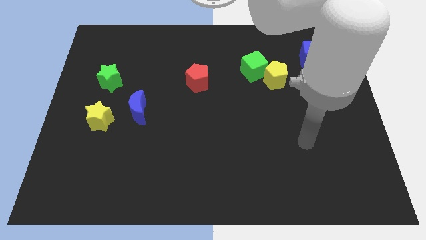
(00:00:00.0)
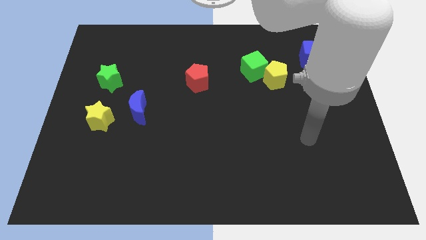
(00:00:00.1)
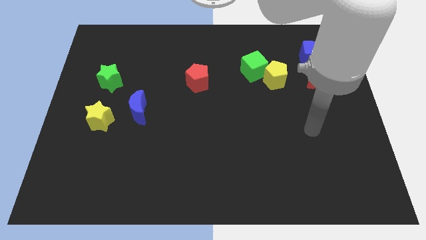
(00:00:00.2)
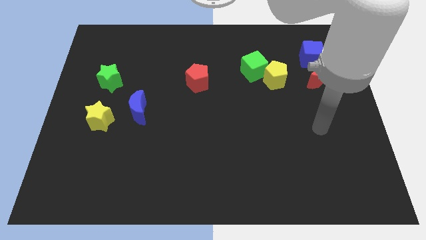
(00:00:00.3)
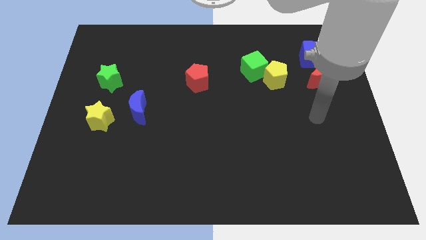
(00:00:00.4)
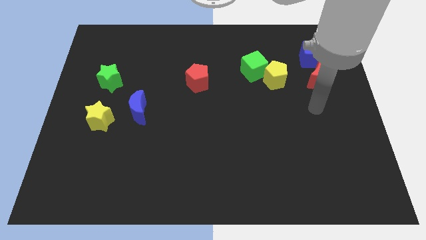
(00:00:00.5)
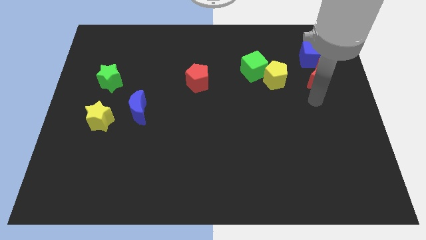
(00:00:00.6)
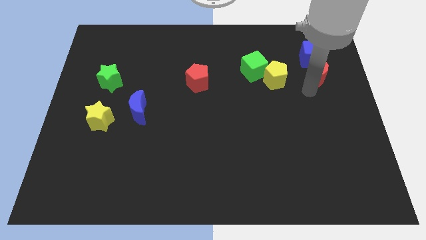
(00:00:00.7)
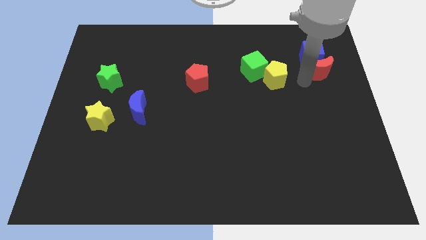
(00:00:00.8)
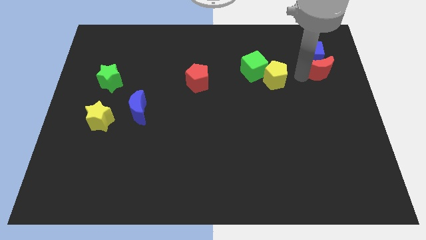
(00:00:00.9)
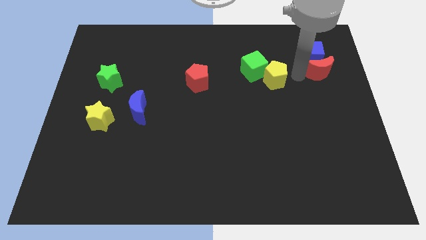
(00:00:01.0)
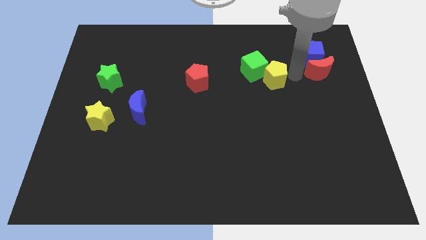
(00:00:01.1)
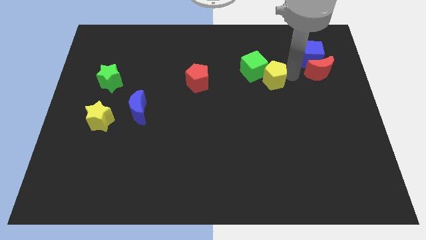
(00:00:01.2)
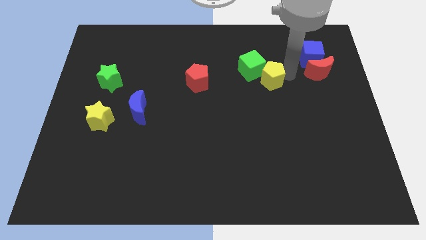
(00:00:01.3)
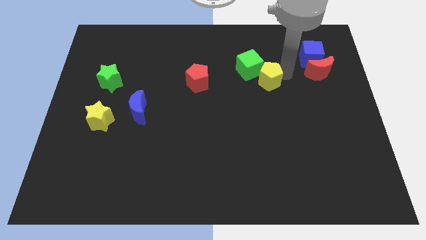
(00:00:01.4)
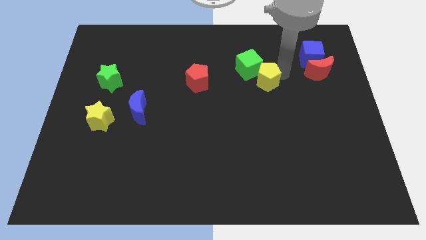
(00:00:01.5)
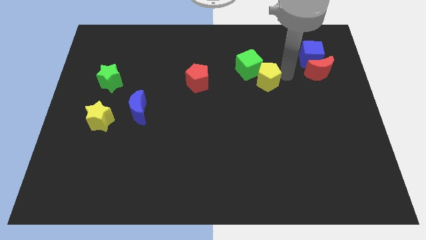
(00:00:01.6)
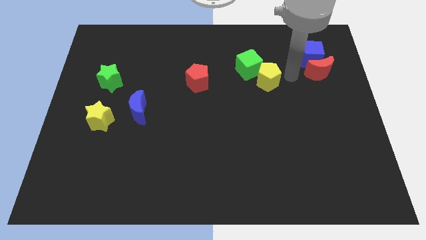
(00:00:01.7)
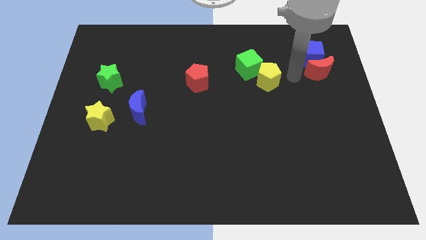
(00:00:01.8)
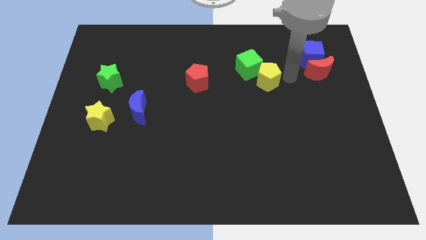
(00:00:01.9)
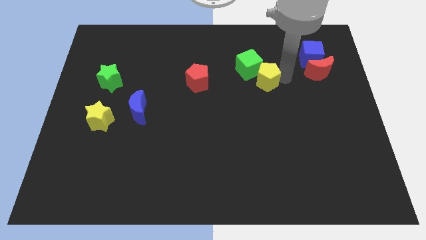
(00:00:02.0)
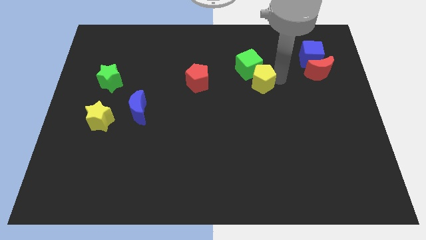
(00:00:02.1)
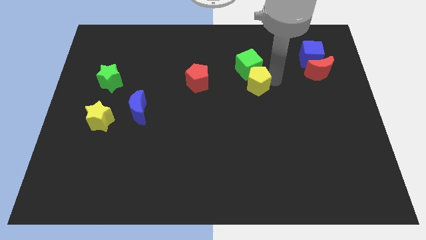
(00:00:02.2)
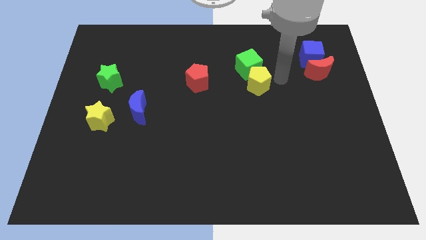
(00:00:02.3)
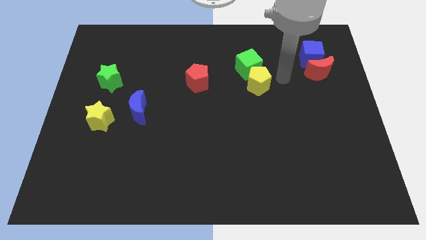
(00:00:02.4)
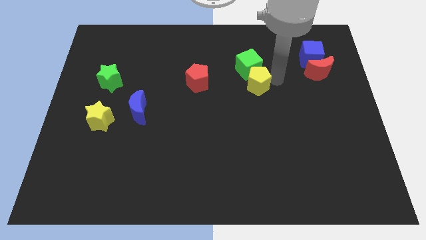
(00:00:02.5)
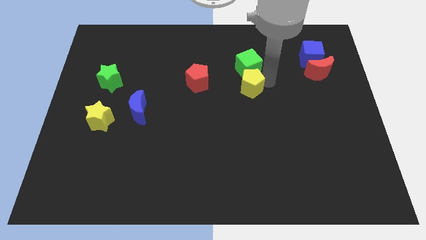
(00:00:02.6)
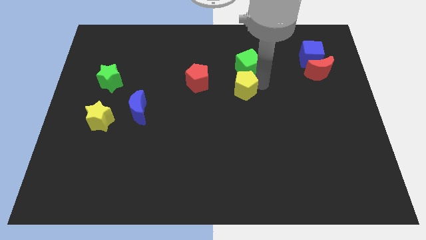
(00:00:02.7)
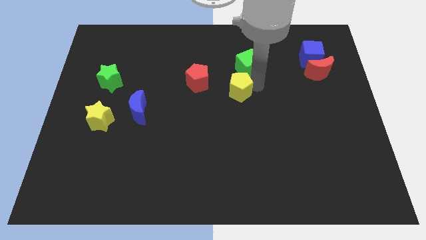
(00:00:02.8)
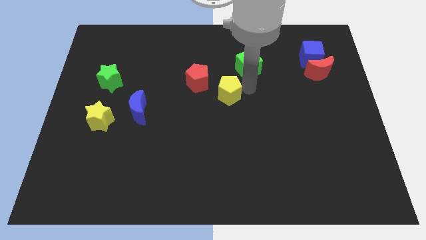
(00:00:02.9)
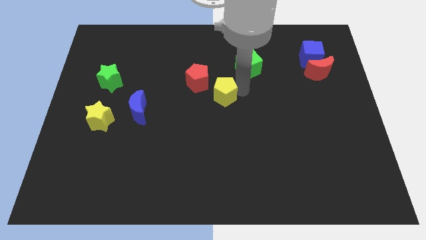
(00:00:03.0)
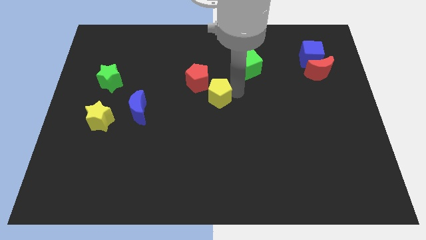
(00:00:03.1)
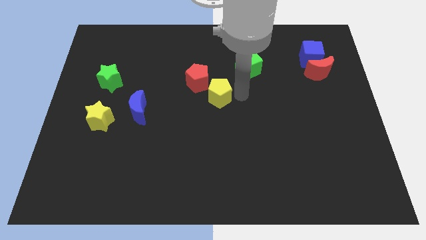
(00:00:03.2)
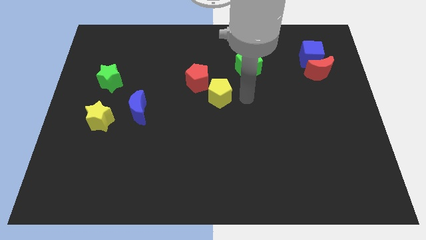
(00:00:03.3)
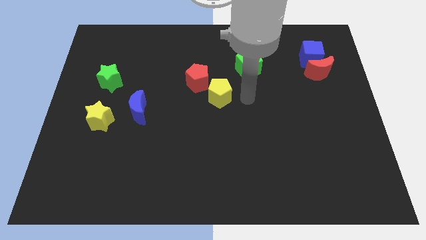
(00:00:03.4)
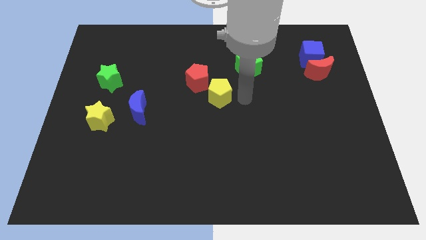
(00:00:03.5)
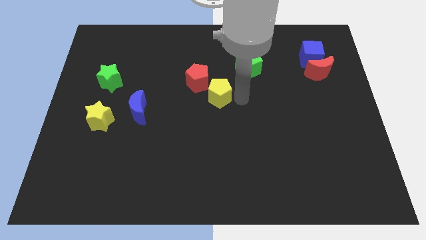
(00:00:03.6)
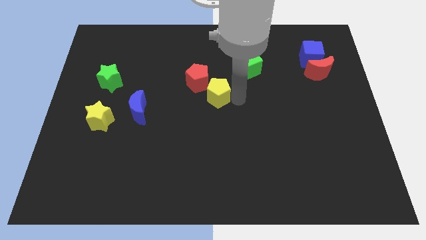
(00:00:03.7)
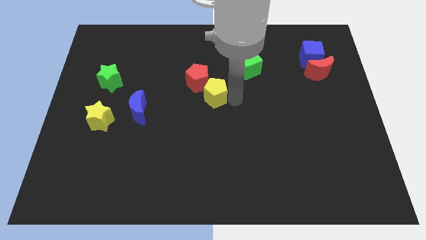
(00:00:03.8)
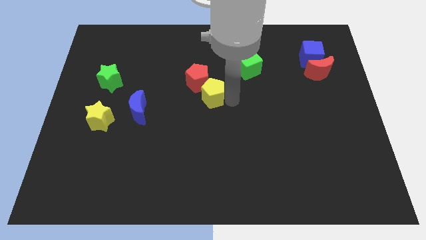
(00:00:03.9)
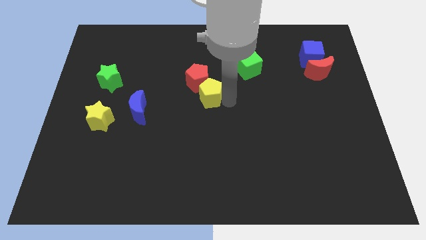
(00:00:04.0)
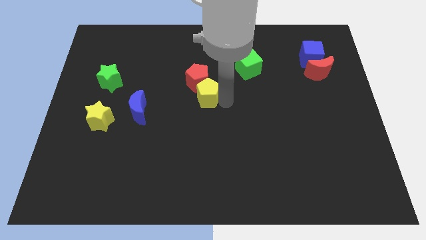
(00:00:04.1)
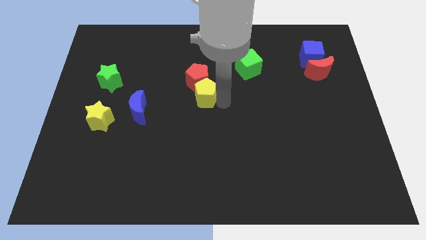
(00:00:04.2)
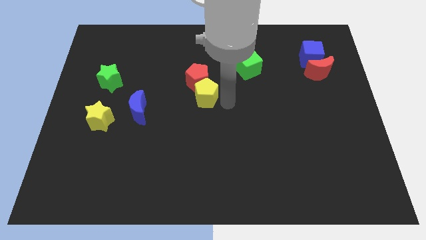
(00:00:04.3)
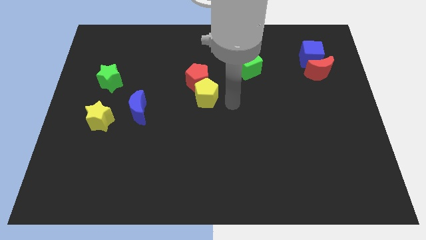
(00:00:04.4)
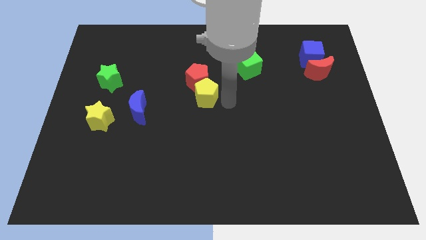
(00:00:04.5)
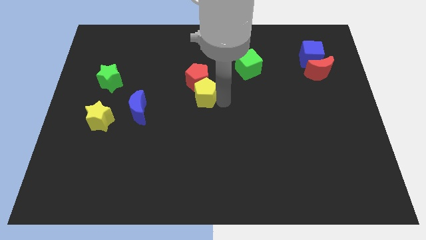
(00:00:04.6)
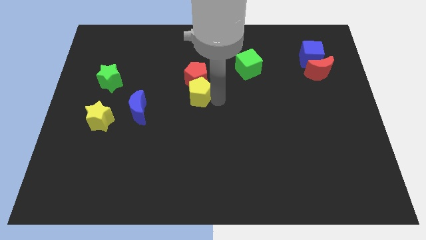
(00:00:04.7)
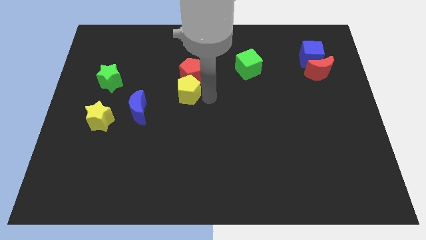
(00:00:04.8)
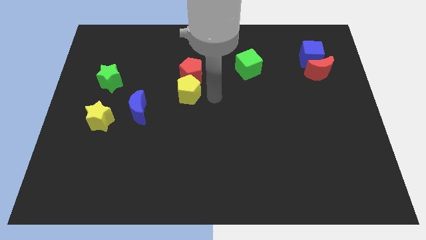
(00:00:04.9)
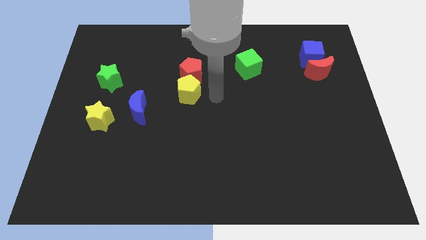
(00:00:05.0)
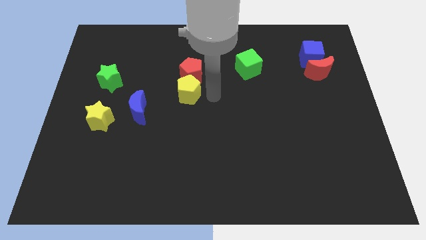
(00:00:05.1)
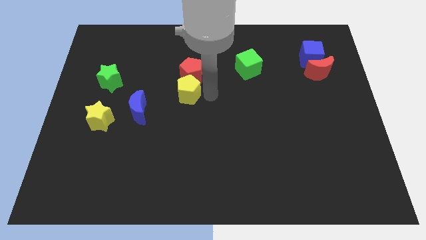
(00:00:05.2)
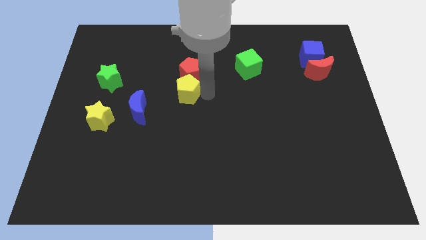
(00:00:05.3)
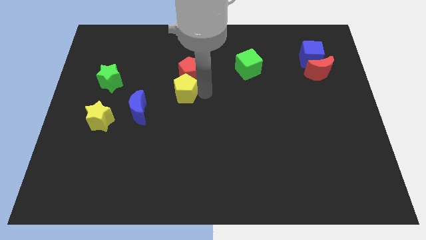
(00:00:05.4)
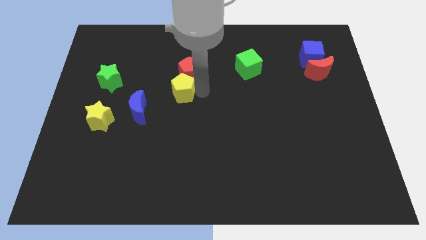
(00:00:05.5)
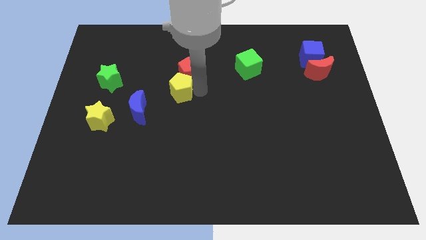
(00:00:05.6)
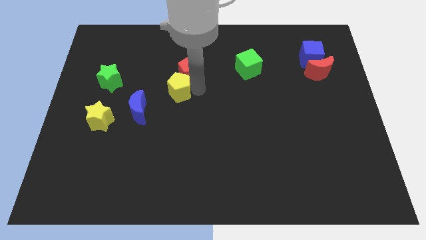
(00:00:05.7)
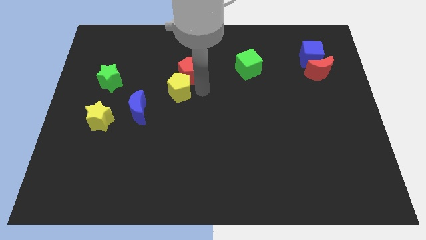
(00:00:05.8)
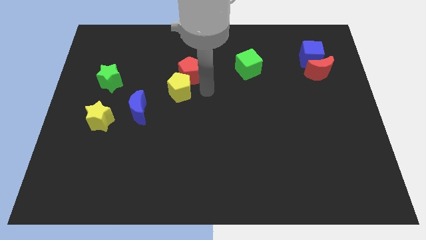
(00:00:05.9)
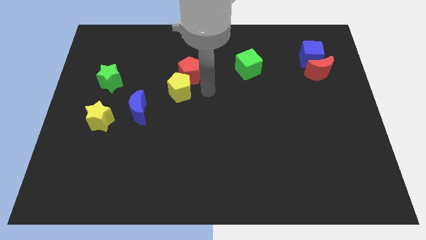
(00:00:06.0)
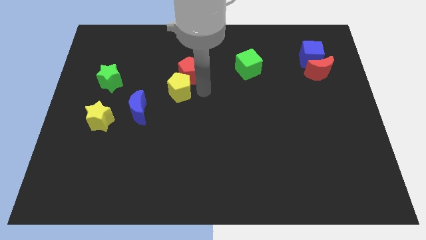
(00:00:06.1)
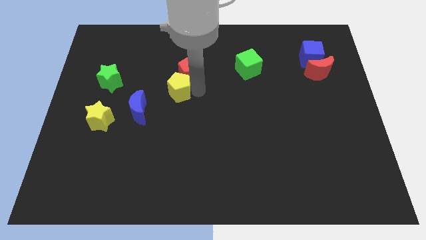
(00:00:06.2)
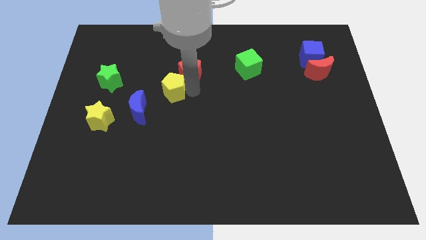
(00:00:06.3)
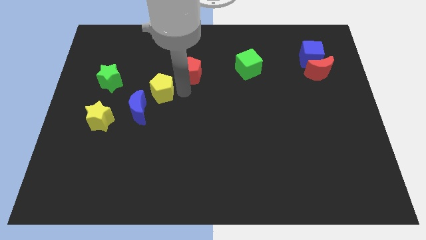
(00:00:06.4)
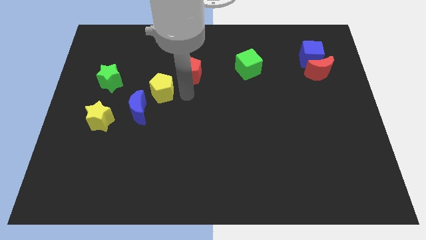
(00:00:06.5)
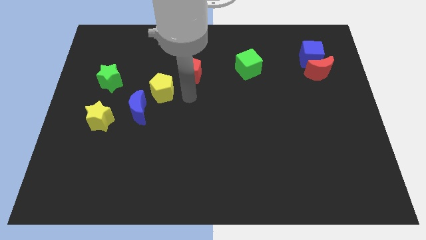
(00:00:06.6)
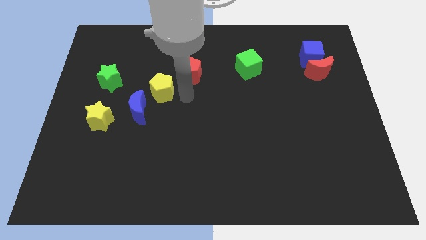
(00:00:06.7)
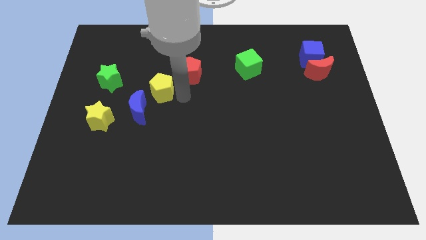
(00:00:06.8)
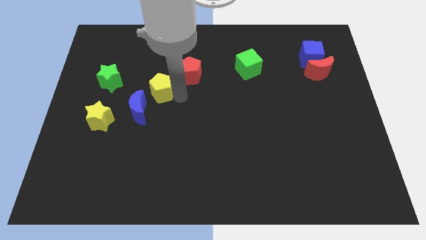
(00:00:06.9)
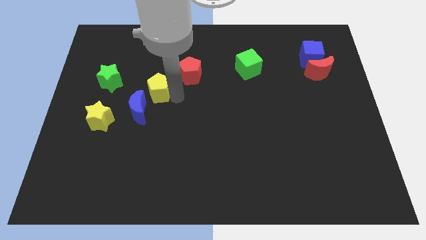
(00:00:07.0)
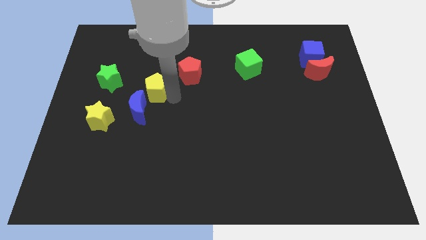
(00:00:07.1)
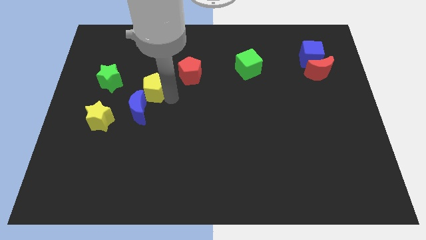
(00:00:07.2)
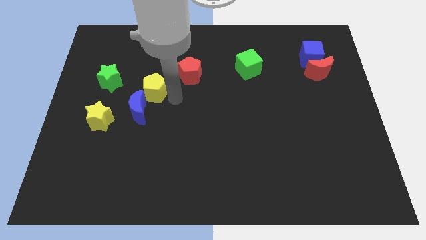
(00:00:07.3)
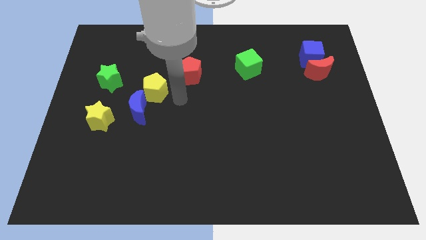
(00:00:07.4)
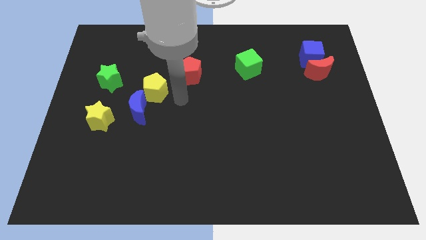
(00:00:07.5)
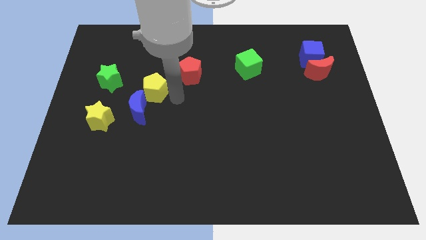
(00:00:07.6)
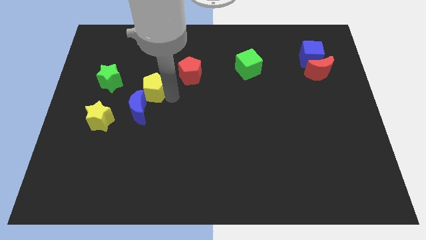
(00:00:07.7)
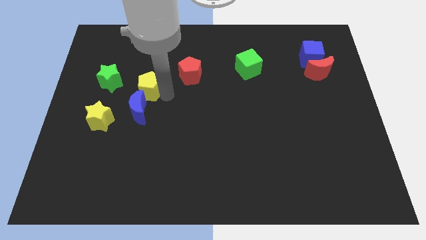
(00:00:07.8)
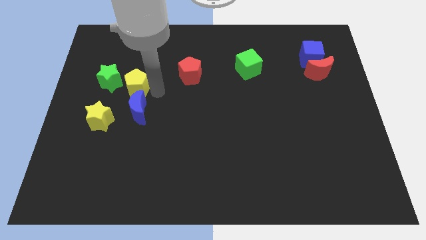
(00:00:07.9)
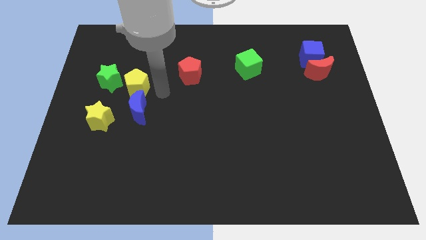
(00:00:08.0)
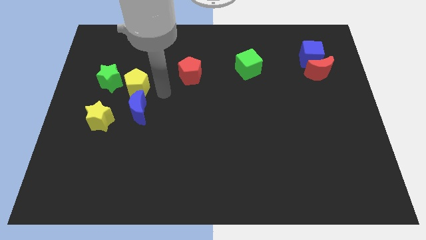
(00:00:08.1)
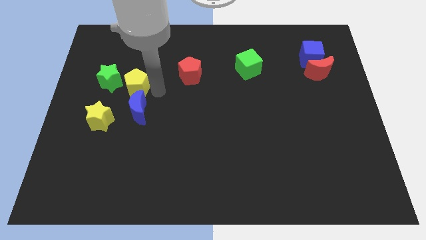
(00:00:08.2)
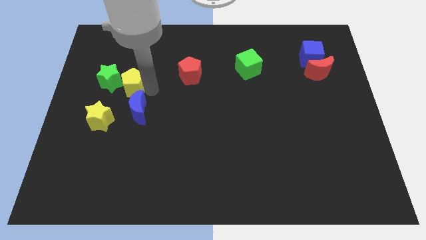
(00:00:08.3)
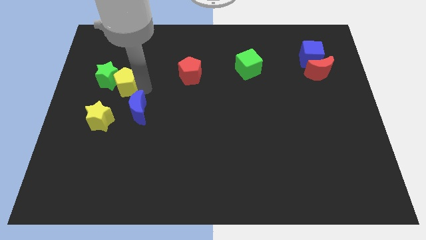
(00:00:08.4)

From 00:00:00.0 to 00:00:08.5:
push the yellow pentagon to the green star
